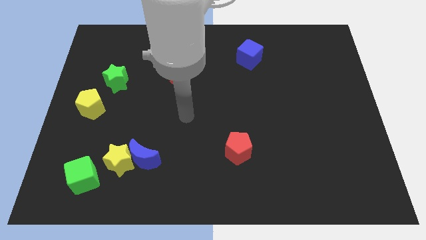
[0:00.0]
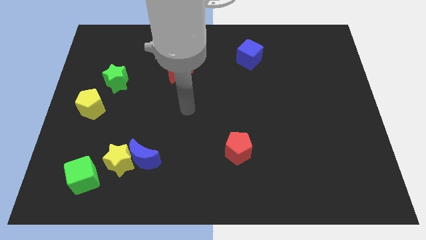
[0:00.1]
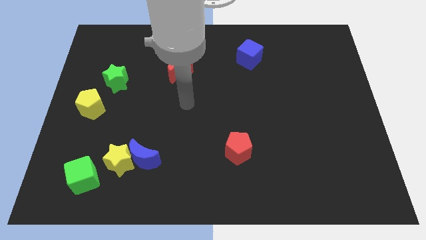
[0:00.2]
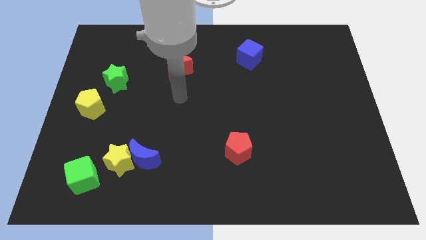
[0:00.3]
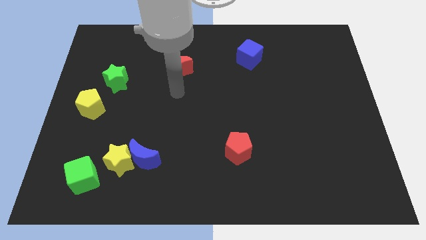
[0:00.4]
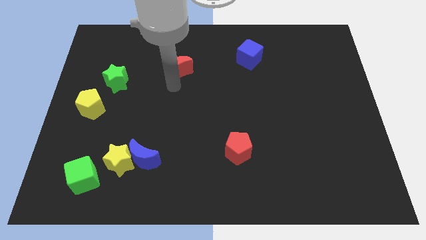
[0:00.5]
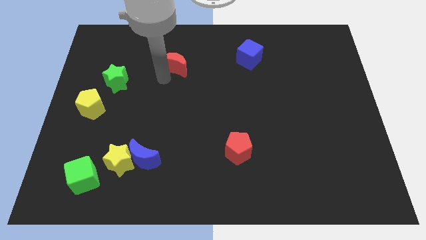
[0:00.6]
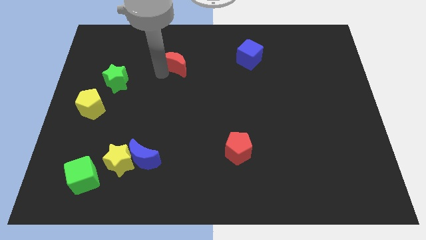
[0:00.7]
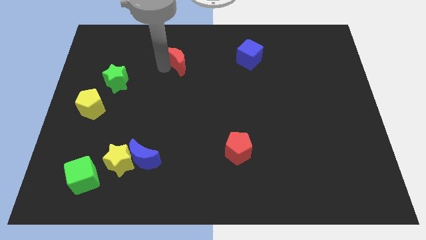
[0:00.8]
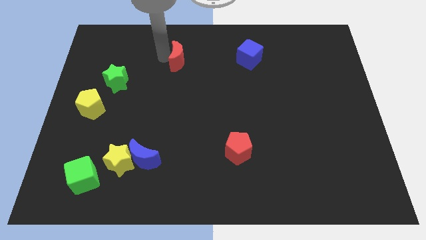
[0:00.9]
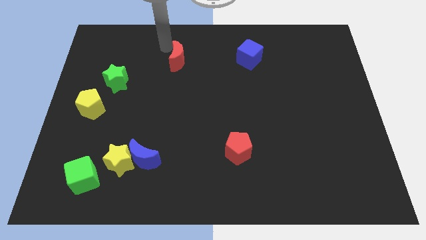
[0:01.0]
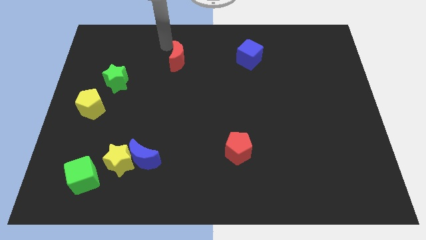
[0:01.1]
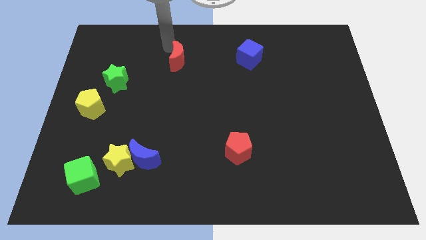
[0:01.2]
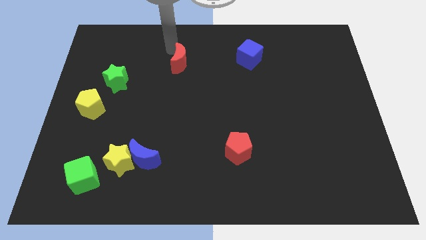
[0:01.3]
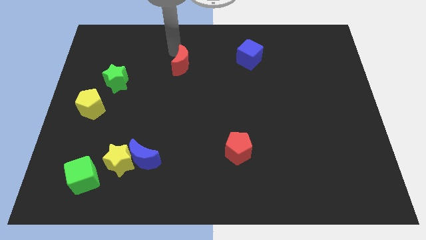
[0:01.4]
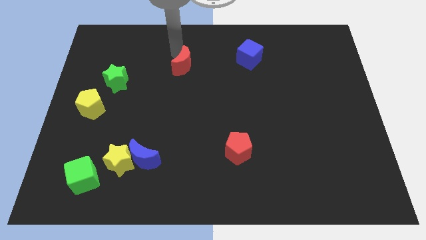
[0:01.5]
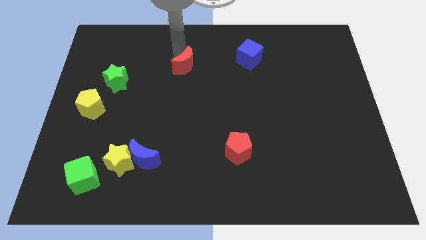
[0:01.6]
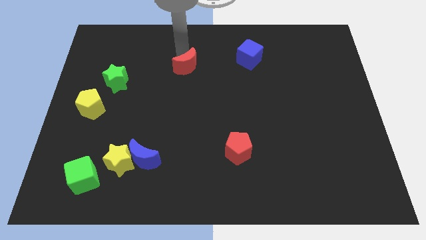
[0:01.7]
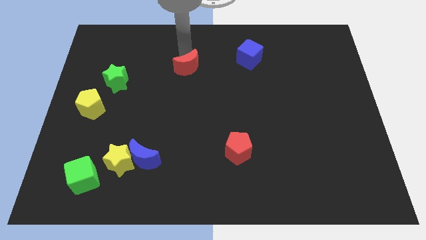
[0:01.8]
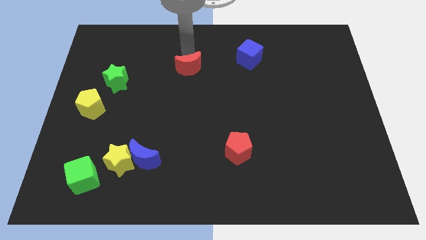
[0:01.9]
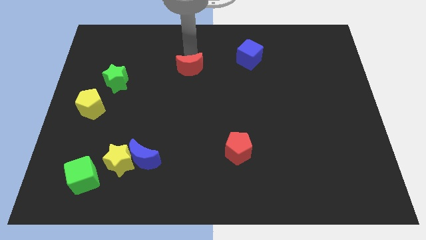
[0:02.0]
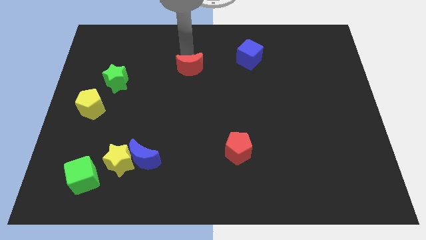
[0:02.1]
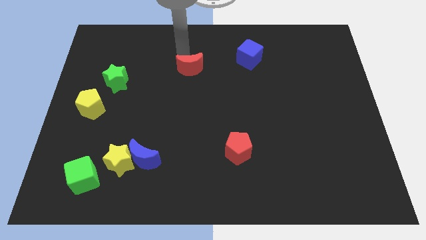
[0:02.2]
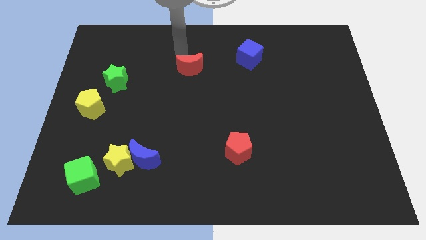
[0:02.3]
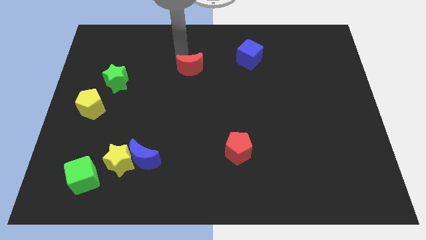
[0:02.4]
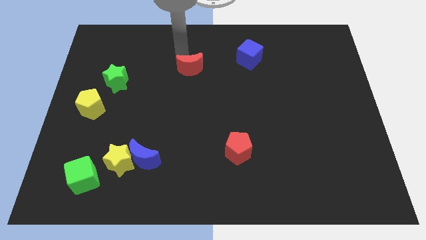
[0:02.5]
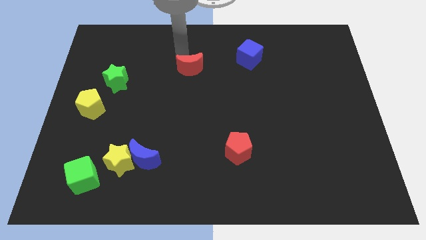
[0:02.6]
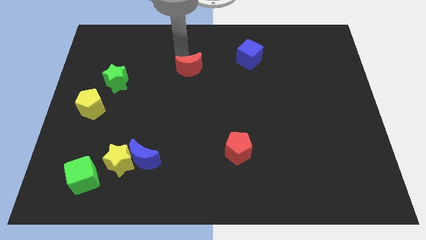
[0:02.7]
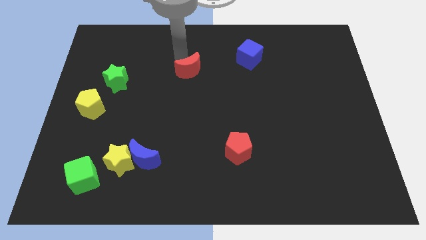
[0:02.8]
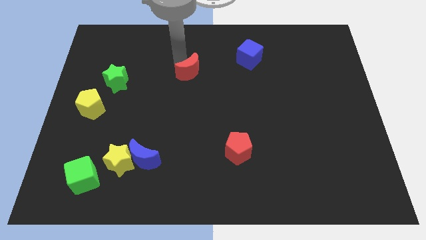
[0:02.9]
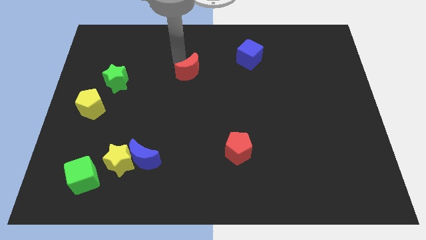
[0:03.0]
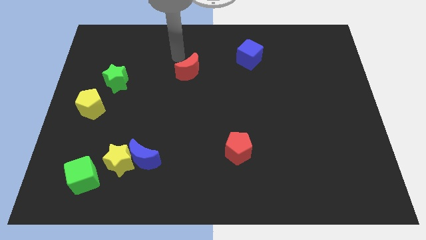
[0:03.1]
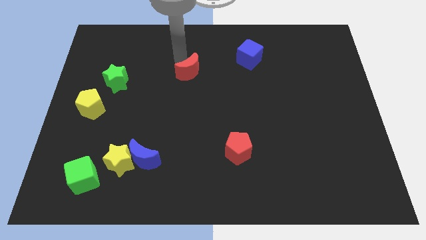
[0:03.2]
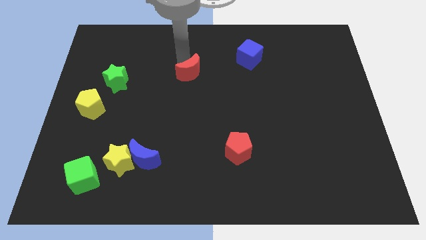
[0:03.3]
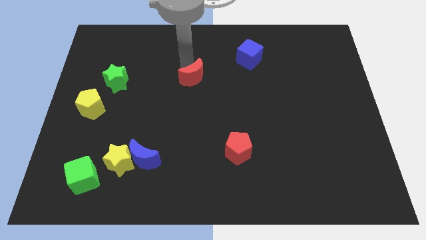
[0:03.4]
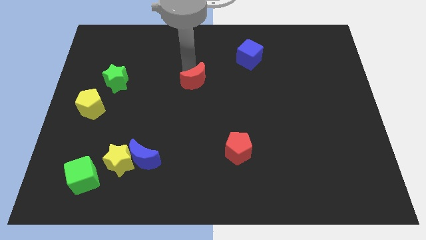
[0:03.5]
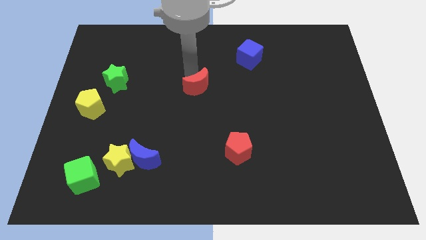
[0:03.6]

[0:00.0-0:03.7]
slightly push the red moon downwards and then right

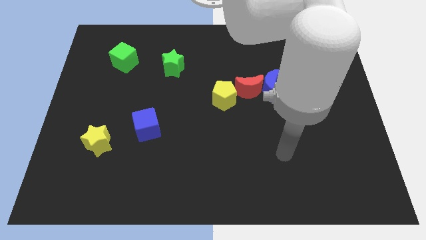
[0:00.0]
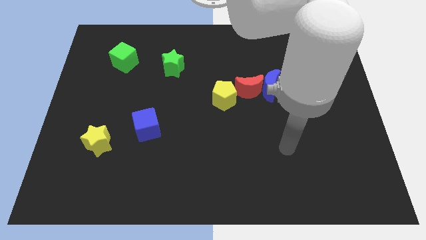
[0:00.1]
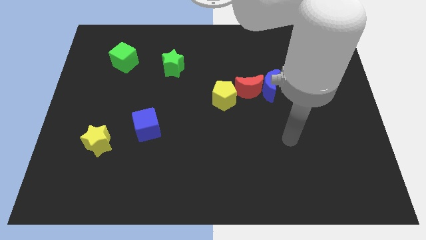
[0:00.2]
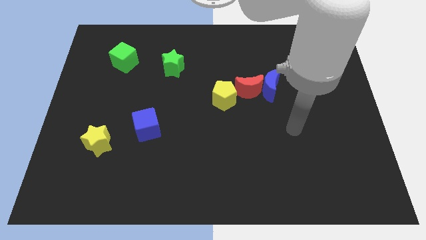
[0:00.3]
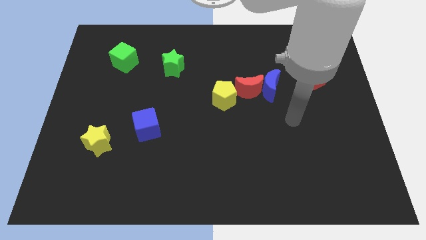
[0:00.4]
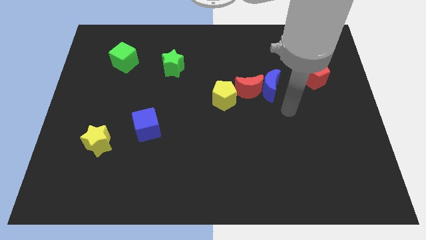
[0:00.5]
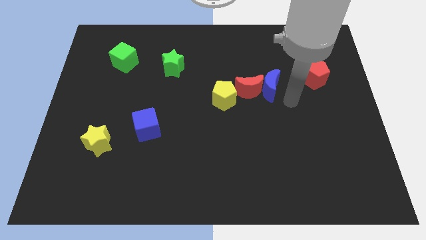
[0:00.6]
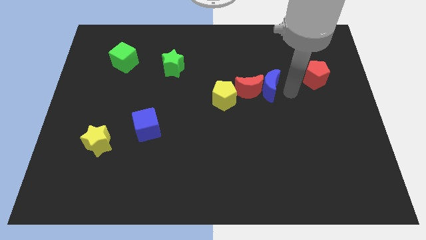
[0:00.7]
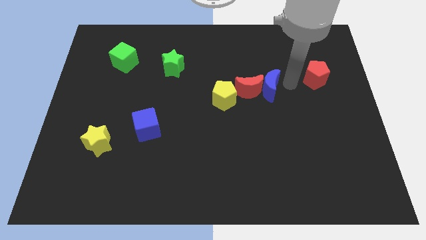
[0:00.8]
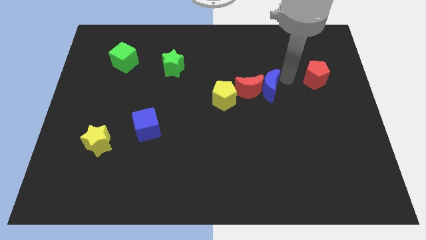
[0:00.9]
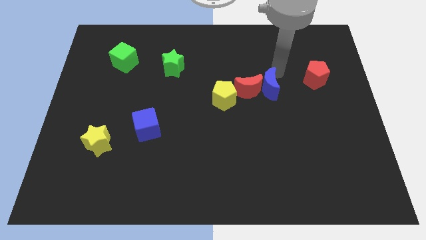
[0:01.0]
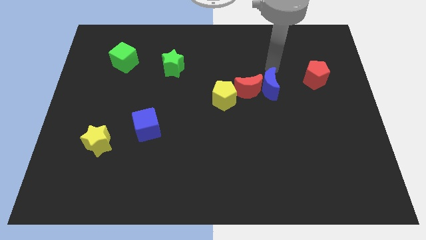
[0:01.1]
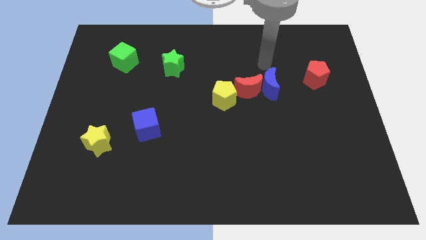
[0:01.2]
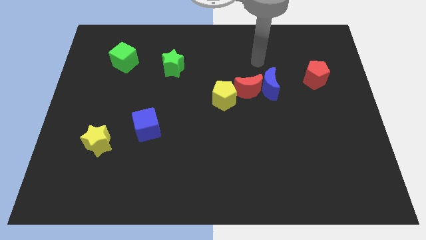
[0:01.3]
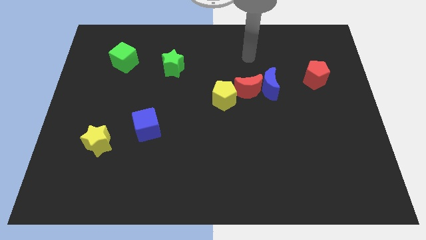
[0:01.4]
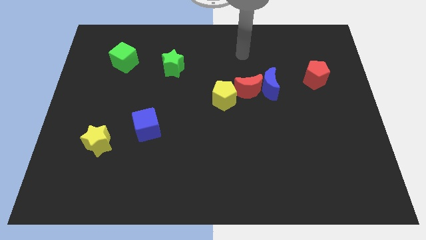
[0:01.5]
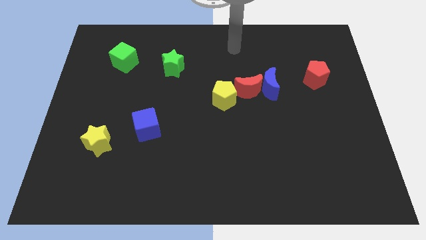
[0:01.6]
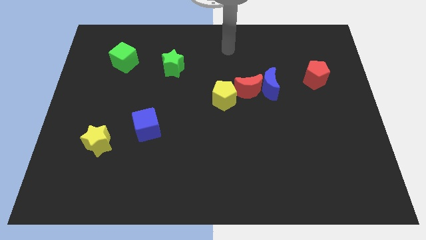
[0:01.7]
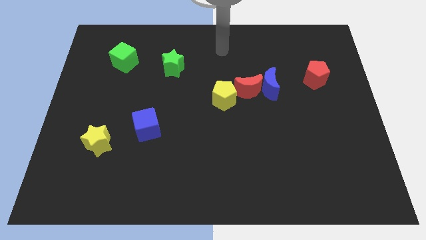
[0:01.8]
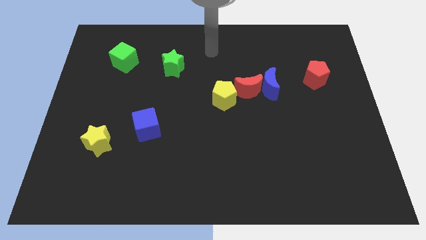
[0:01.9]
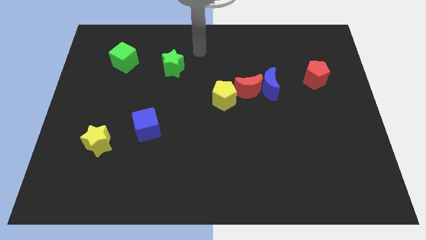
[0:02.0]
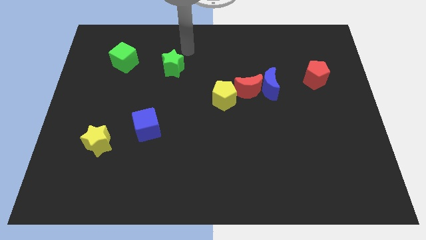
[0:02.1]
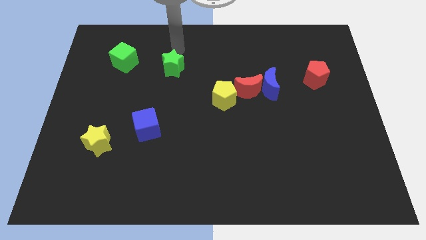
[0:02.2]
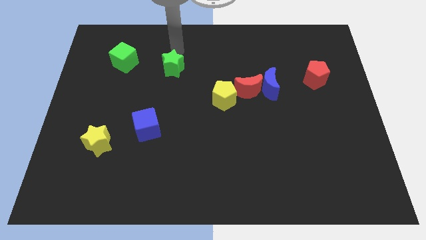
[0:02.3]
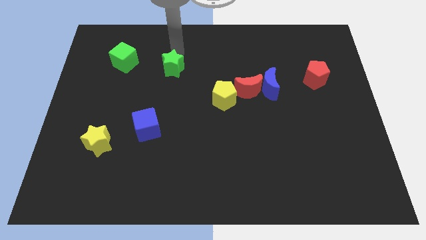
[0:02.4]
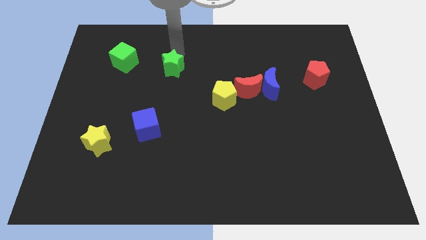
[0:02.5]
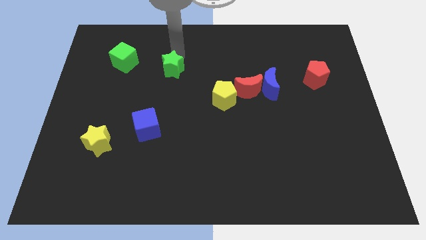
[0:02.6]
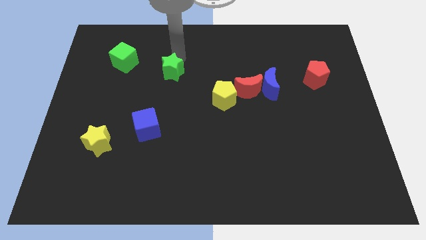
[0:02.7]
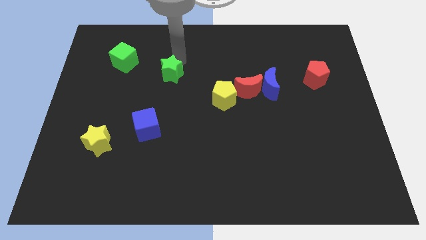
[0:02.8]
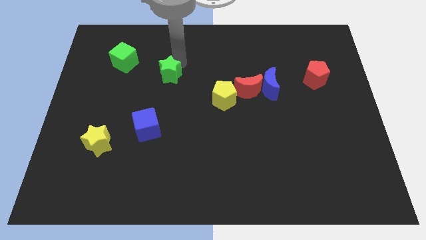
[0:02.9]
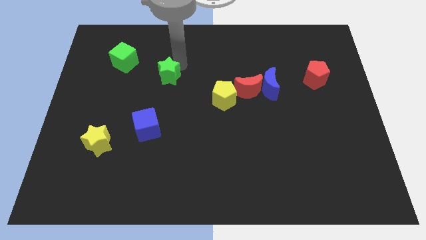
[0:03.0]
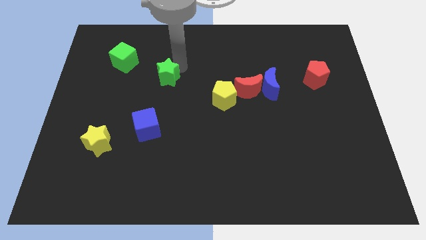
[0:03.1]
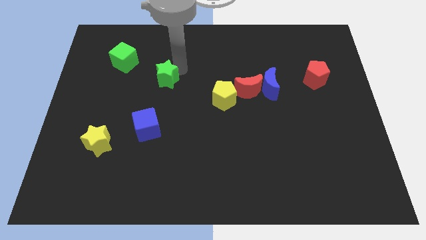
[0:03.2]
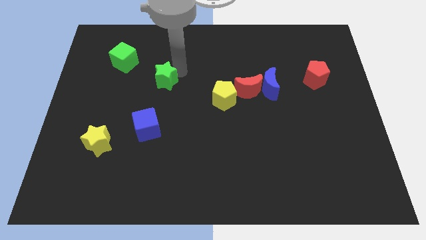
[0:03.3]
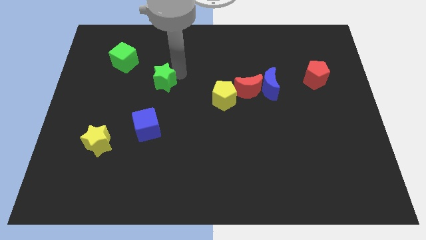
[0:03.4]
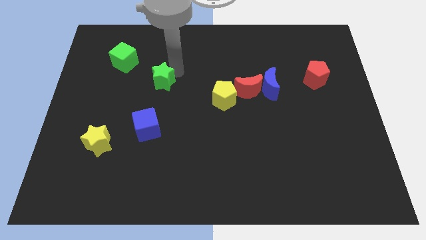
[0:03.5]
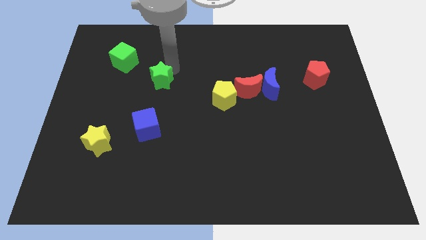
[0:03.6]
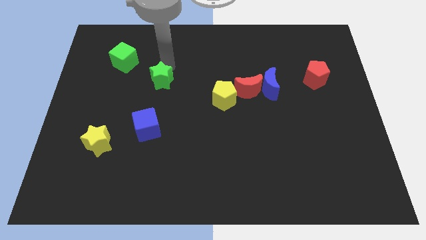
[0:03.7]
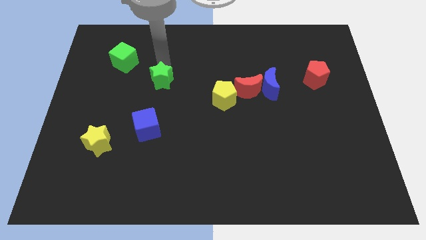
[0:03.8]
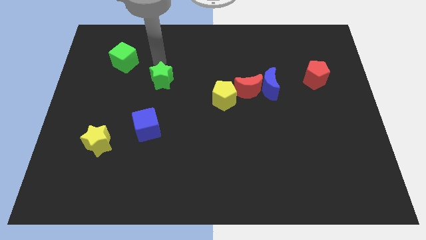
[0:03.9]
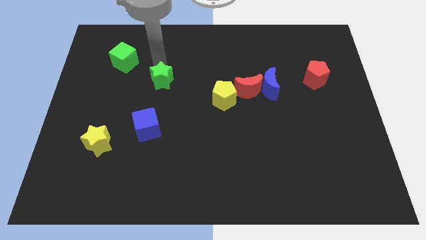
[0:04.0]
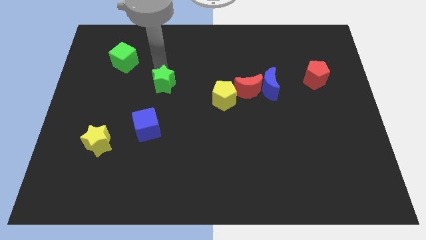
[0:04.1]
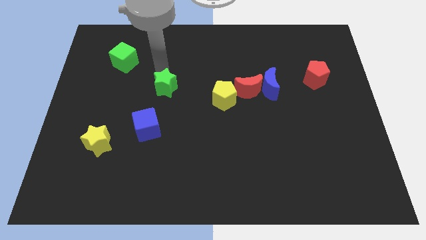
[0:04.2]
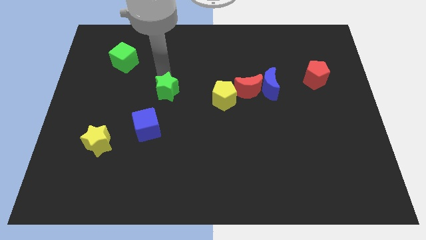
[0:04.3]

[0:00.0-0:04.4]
move the green star down somewhat
